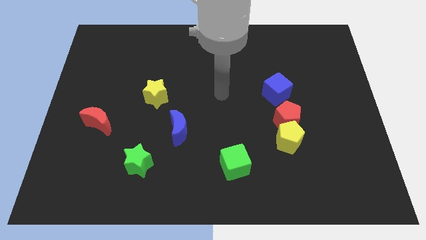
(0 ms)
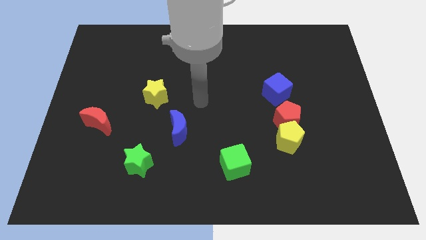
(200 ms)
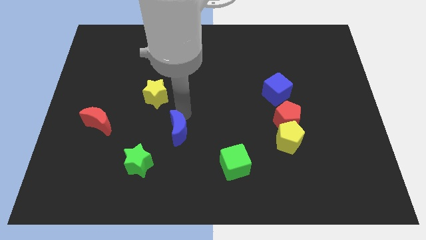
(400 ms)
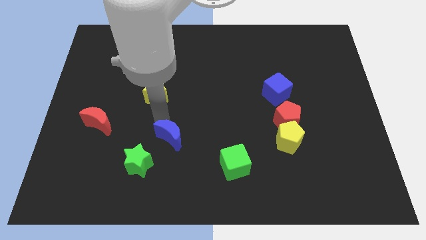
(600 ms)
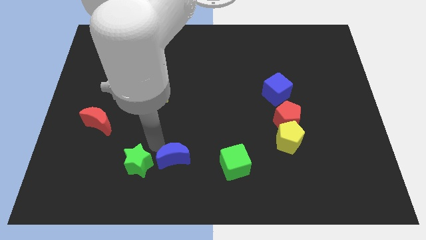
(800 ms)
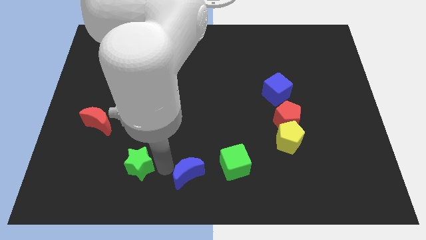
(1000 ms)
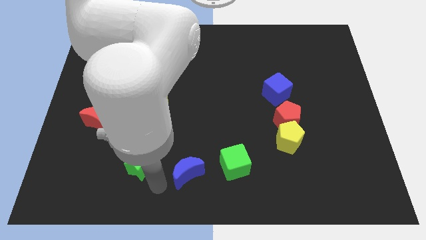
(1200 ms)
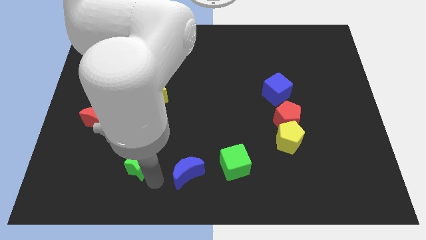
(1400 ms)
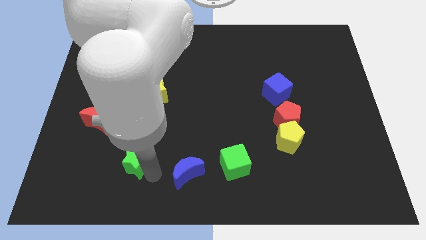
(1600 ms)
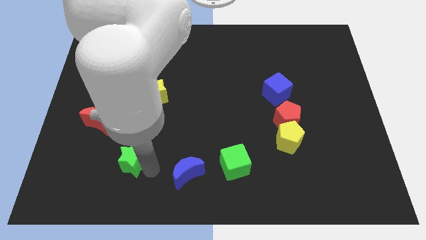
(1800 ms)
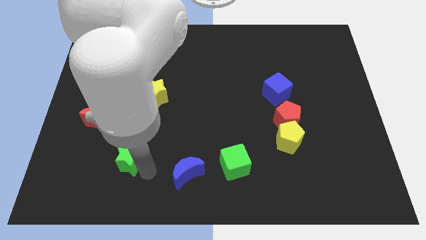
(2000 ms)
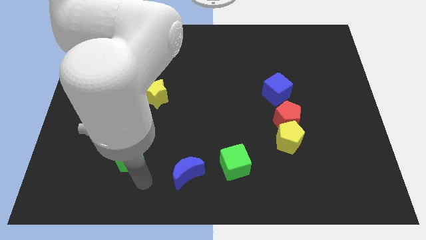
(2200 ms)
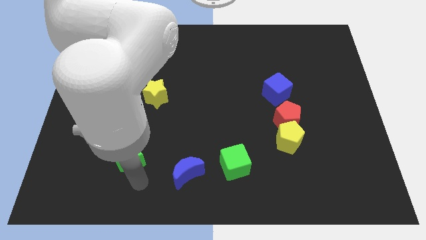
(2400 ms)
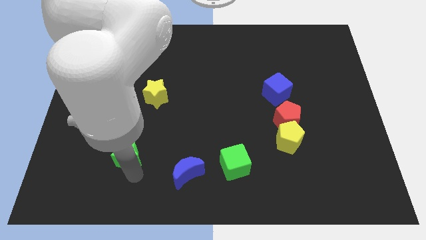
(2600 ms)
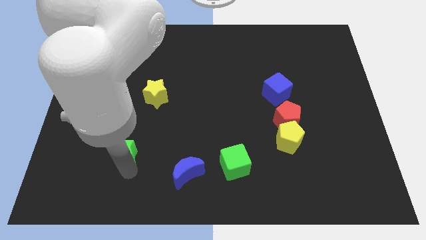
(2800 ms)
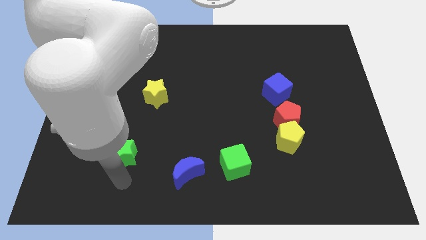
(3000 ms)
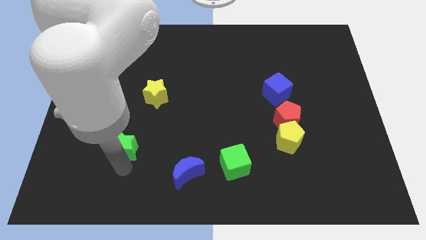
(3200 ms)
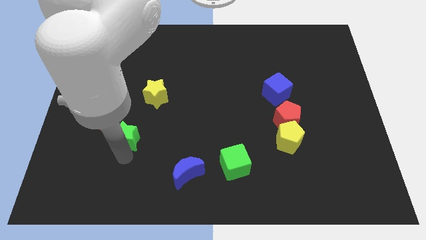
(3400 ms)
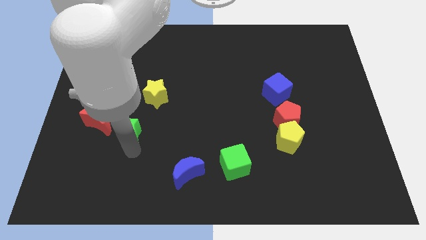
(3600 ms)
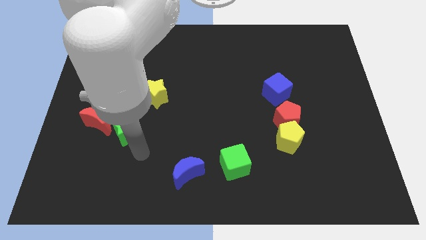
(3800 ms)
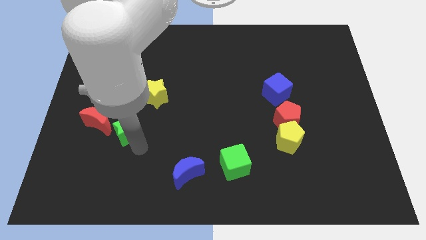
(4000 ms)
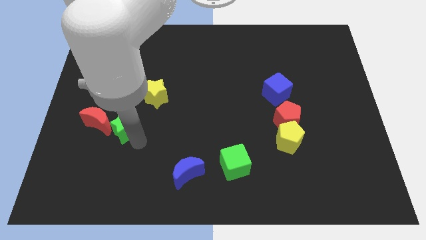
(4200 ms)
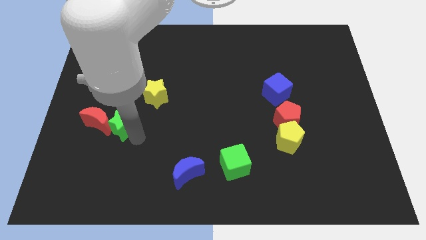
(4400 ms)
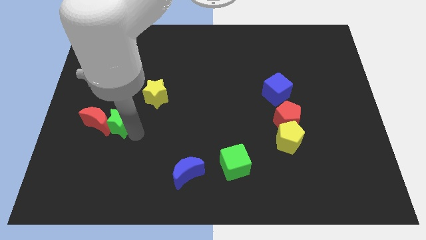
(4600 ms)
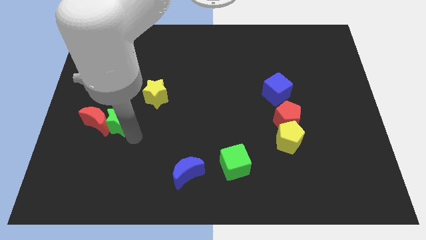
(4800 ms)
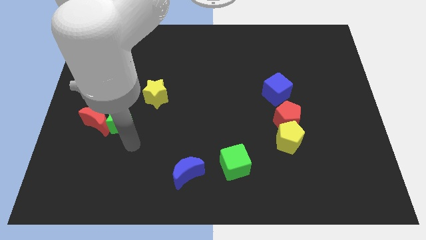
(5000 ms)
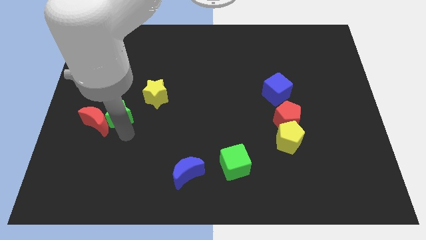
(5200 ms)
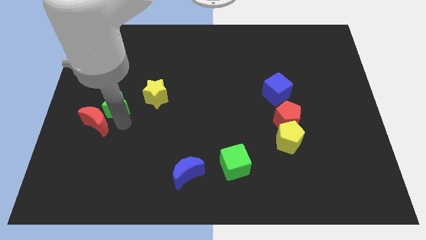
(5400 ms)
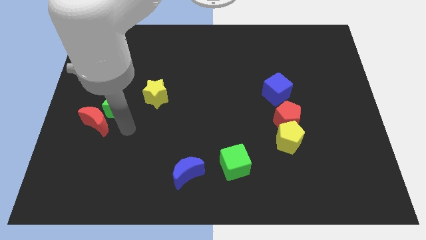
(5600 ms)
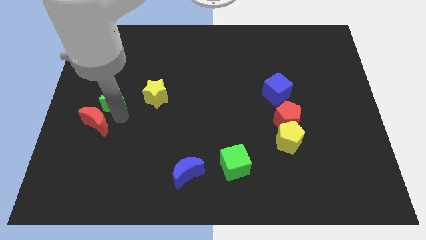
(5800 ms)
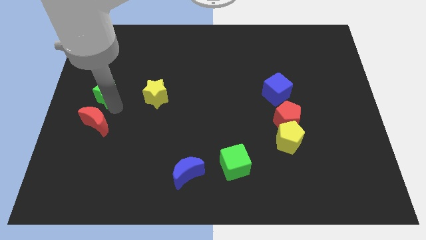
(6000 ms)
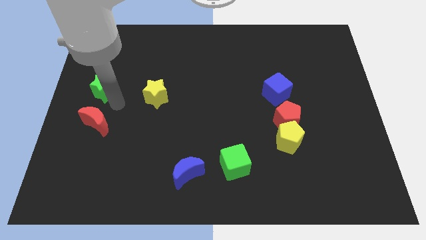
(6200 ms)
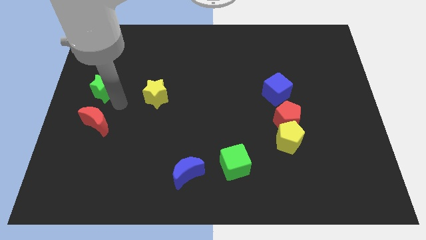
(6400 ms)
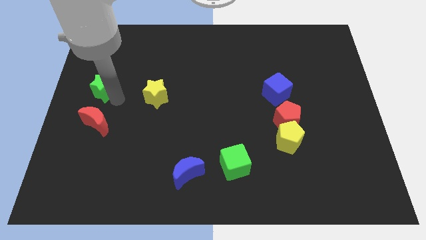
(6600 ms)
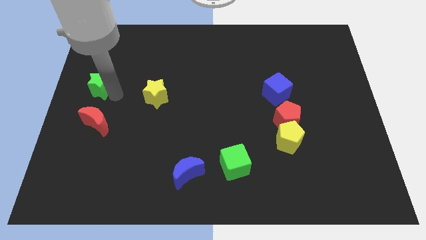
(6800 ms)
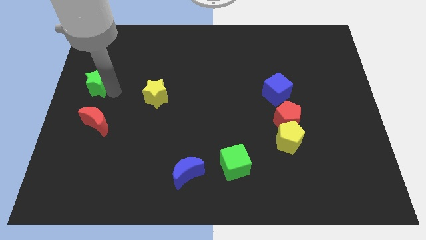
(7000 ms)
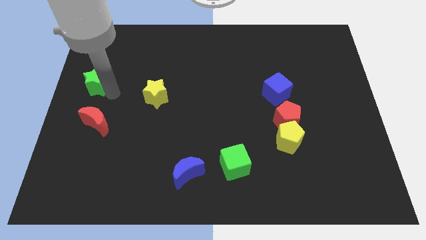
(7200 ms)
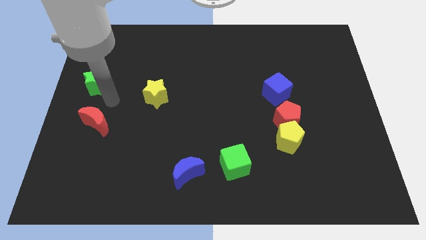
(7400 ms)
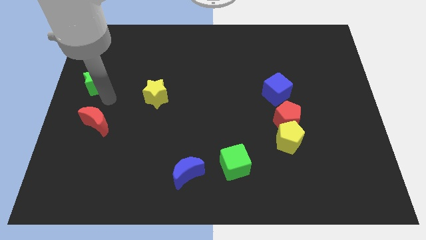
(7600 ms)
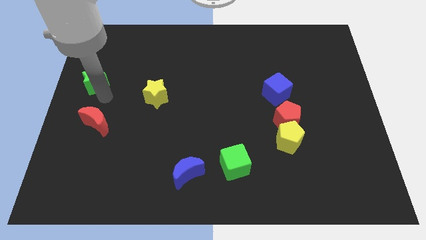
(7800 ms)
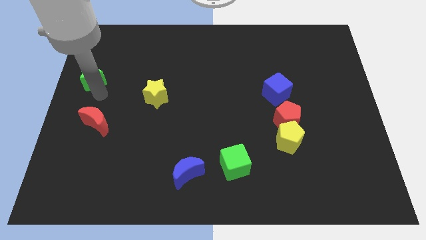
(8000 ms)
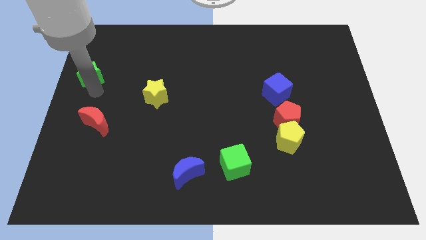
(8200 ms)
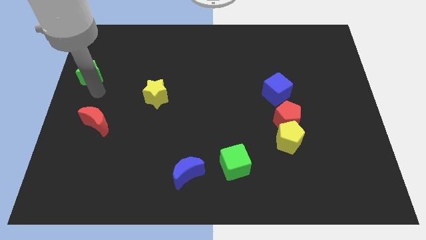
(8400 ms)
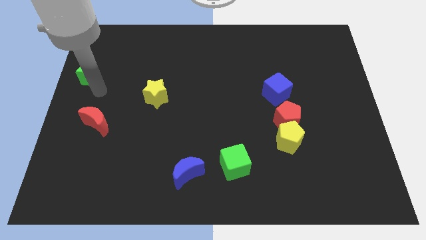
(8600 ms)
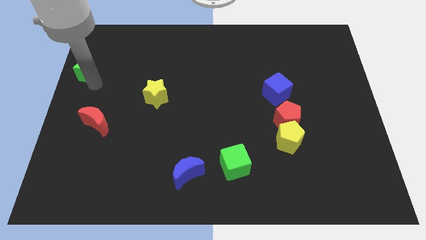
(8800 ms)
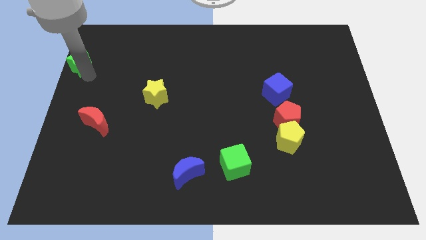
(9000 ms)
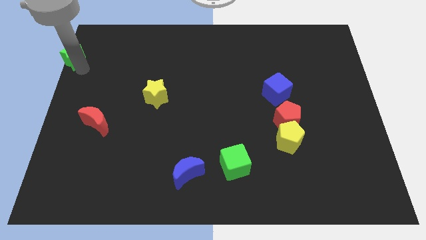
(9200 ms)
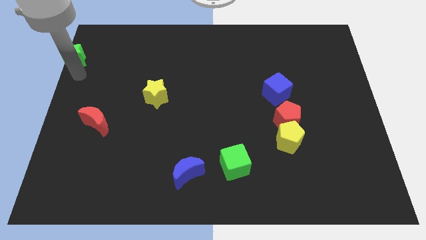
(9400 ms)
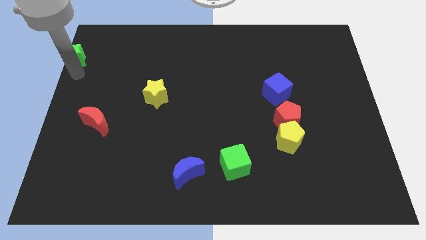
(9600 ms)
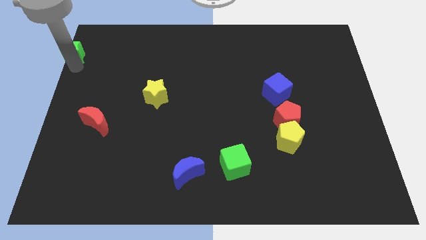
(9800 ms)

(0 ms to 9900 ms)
move the green star to the top left
